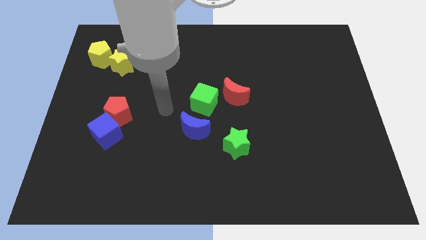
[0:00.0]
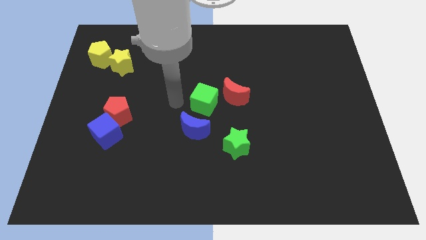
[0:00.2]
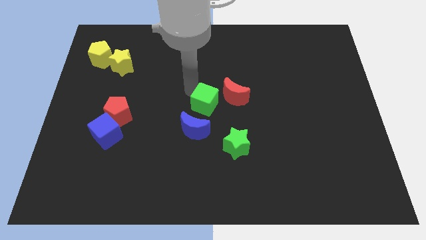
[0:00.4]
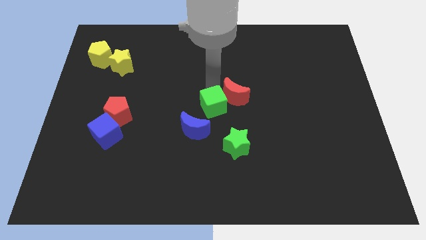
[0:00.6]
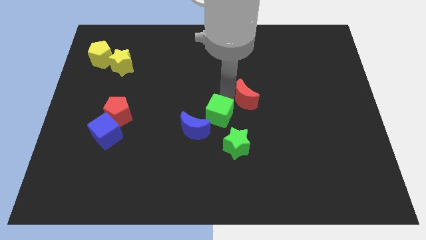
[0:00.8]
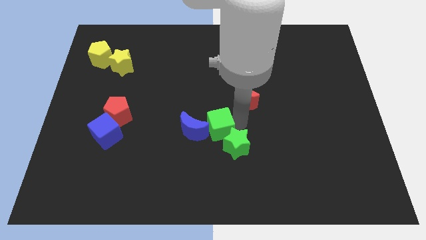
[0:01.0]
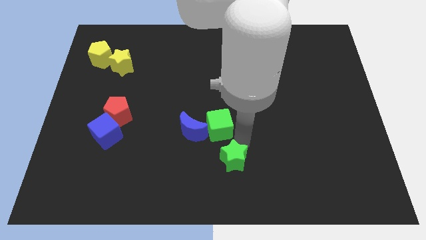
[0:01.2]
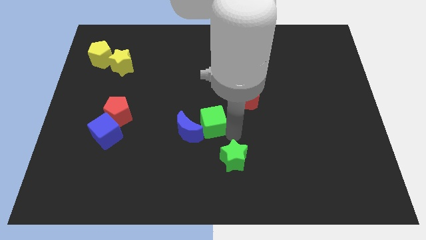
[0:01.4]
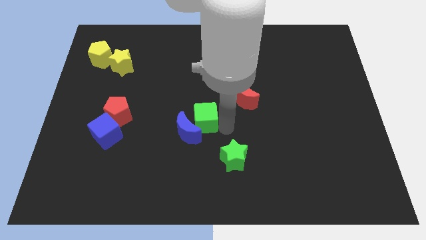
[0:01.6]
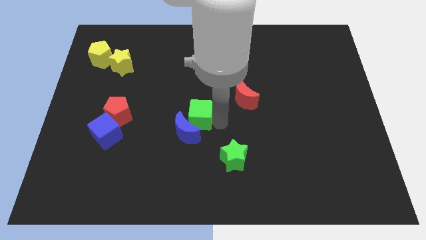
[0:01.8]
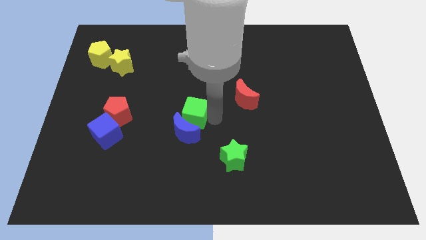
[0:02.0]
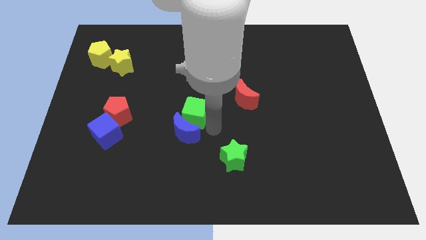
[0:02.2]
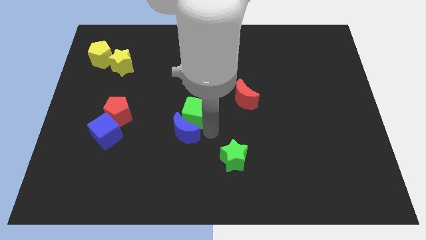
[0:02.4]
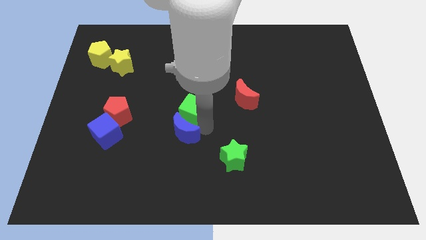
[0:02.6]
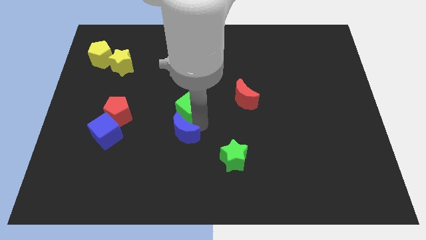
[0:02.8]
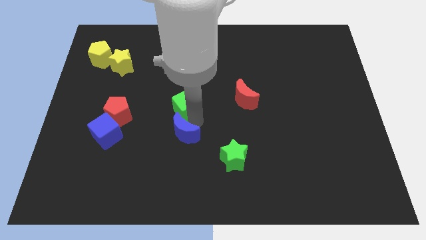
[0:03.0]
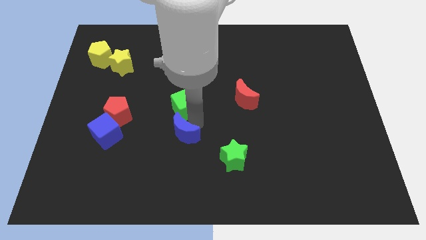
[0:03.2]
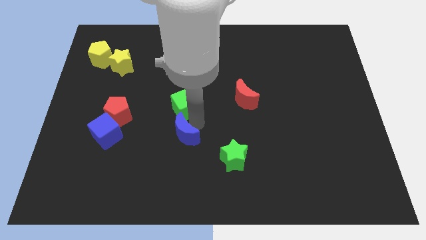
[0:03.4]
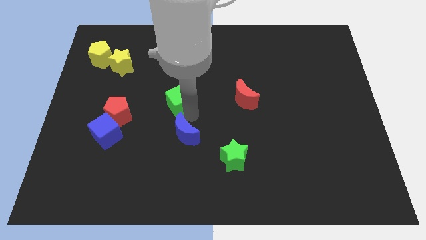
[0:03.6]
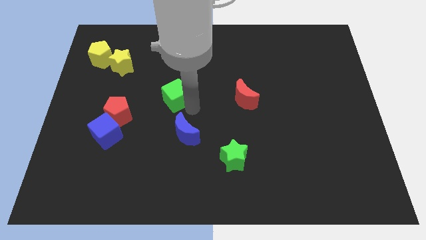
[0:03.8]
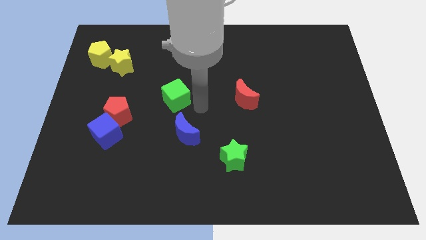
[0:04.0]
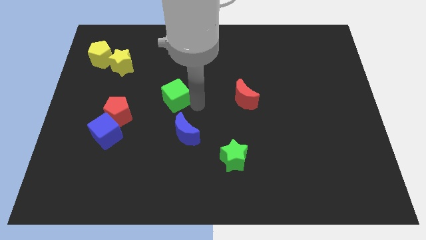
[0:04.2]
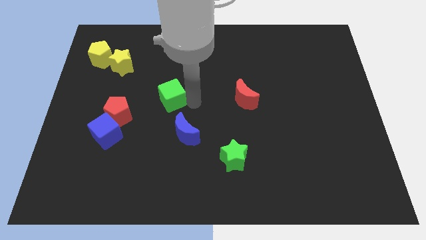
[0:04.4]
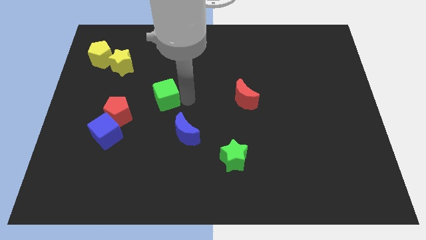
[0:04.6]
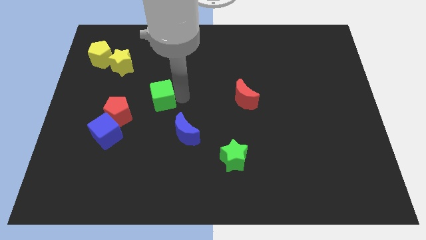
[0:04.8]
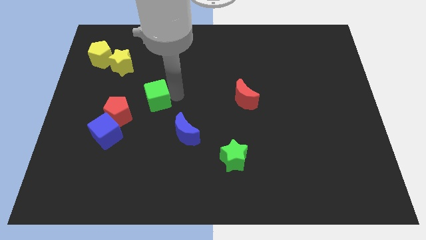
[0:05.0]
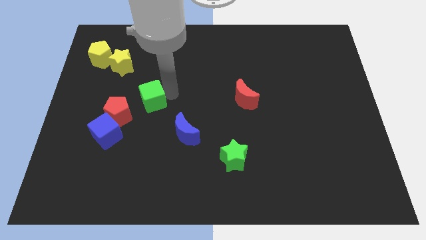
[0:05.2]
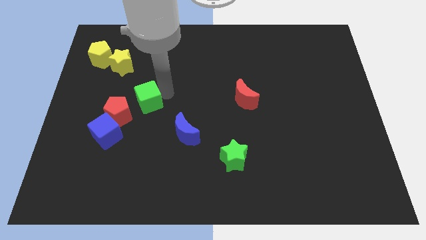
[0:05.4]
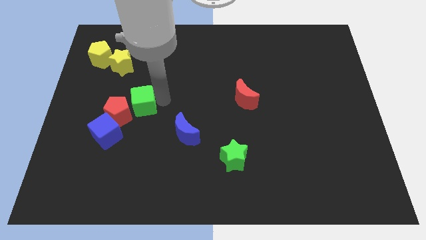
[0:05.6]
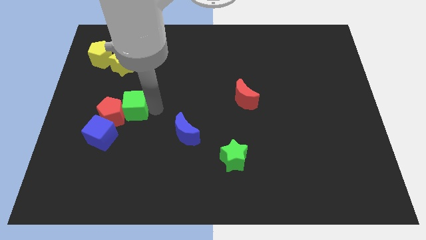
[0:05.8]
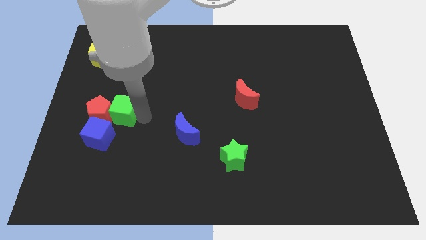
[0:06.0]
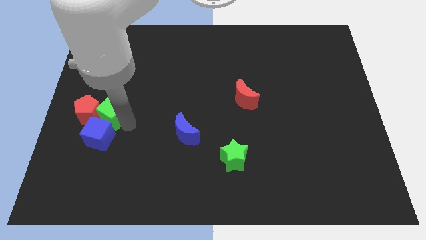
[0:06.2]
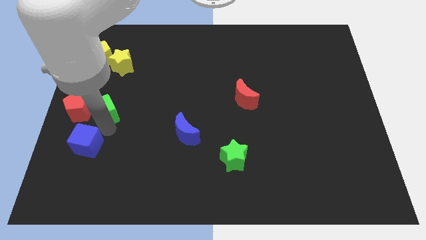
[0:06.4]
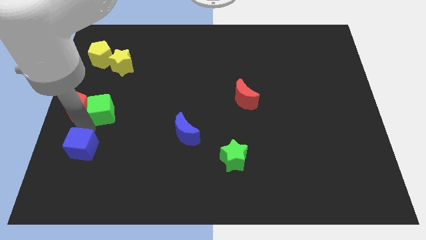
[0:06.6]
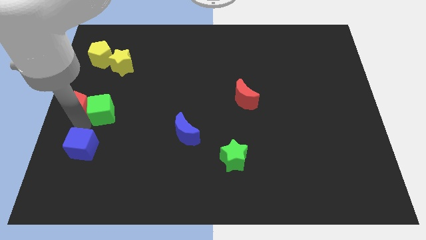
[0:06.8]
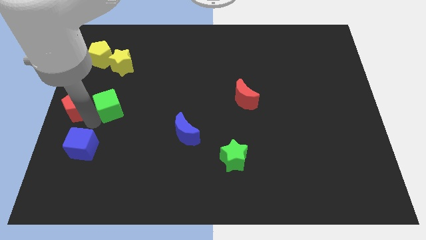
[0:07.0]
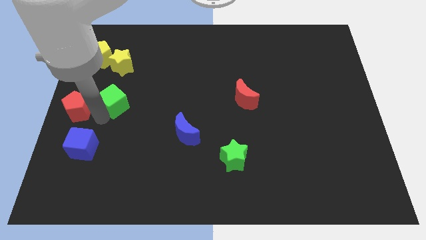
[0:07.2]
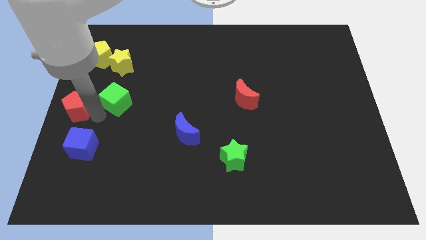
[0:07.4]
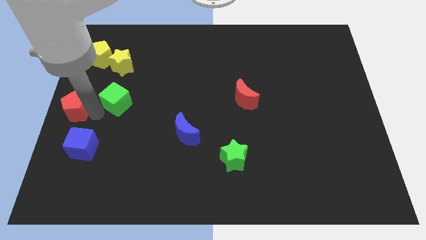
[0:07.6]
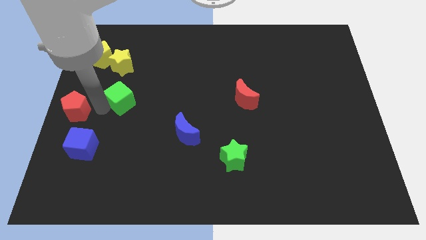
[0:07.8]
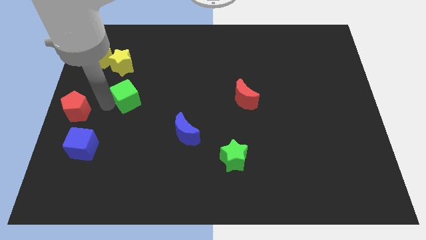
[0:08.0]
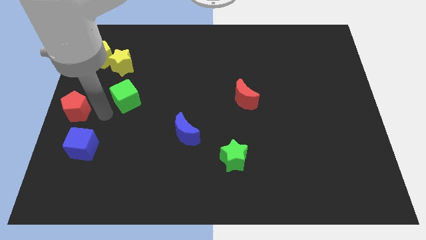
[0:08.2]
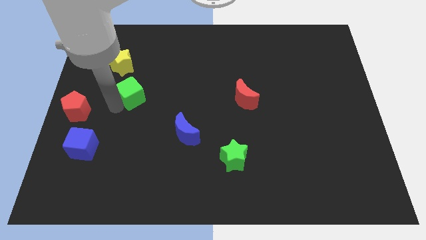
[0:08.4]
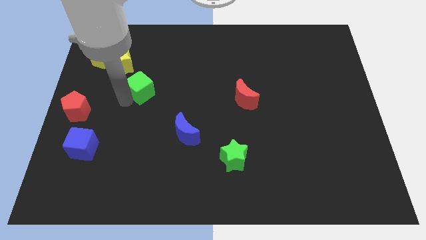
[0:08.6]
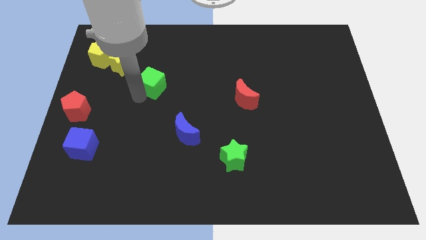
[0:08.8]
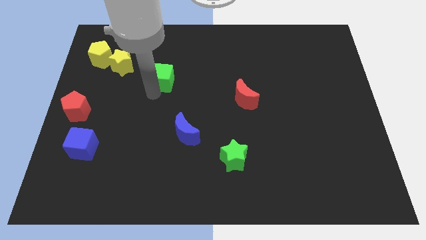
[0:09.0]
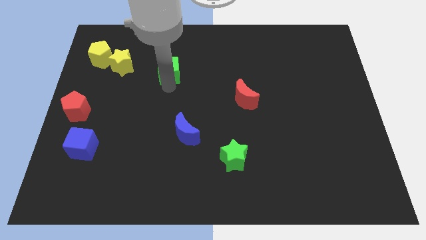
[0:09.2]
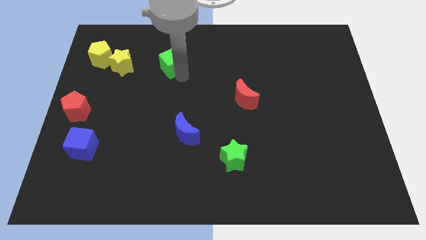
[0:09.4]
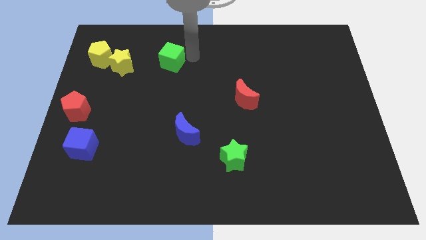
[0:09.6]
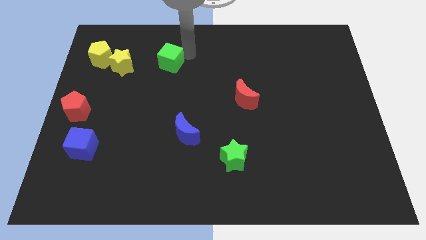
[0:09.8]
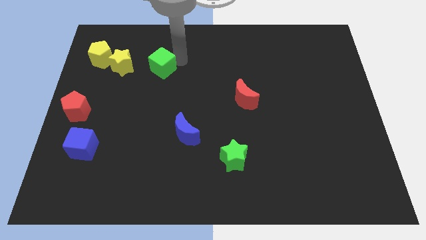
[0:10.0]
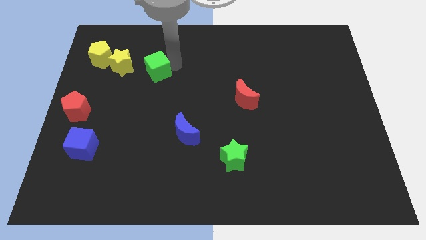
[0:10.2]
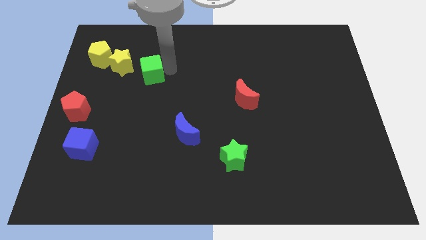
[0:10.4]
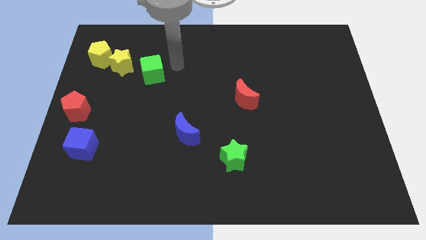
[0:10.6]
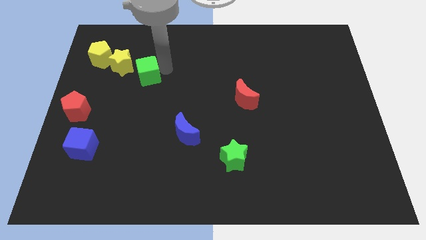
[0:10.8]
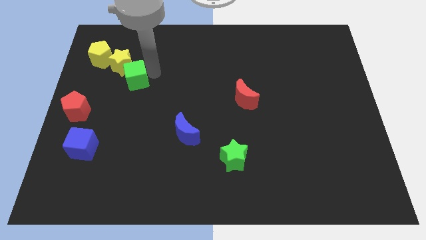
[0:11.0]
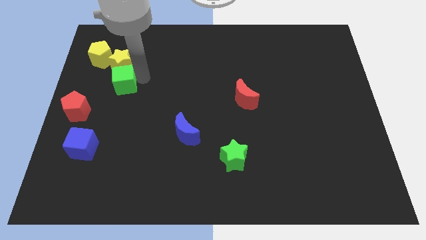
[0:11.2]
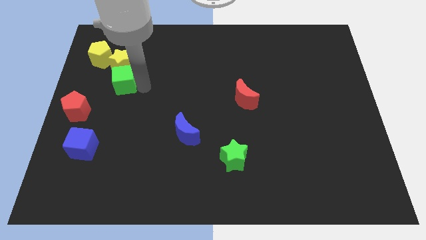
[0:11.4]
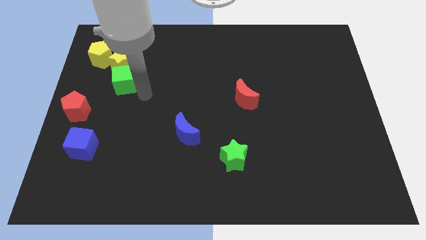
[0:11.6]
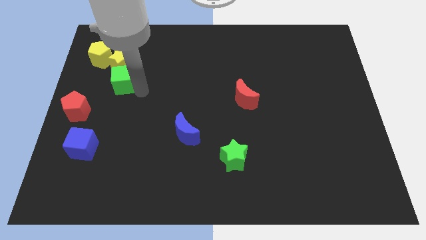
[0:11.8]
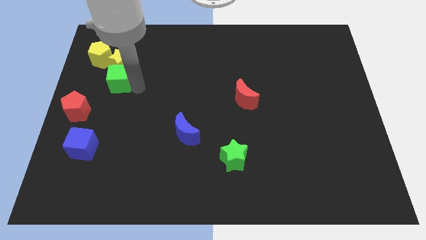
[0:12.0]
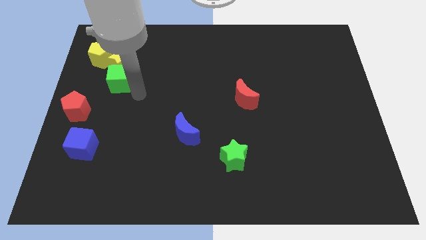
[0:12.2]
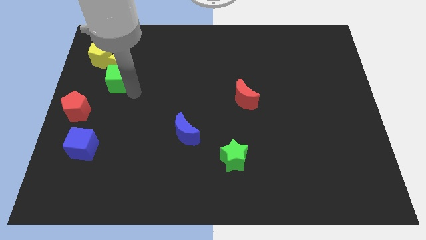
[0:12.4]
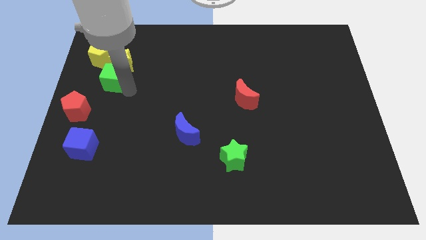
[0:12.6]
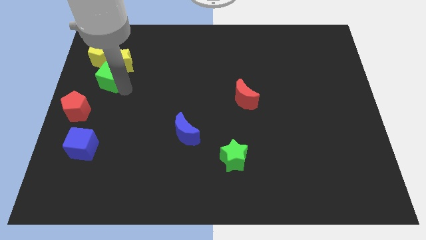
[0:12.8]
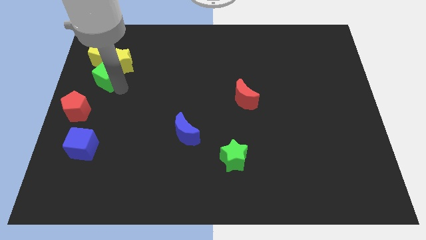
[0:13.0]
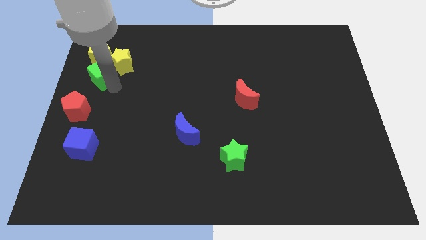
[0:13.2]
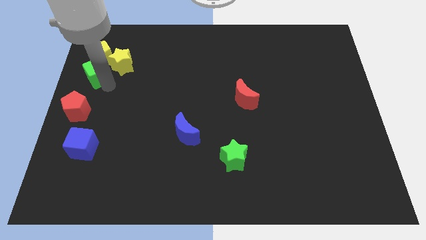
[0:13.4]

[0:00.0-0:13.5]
slide the green cube next to the yellow pentagon
